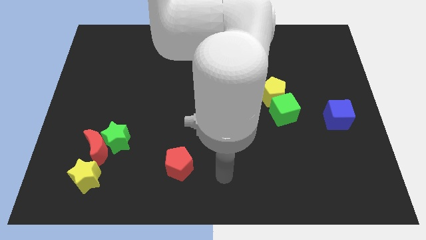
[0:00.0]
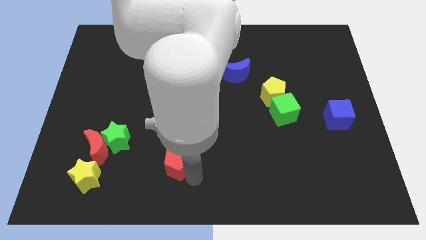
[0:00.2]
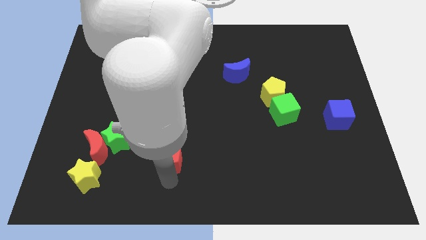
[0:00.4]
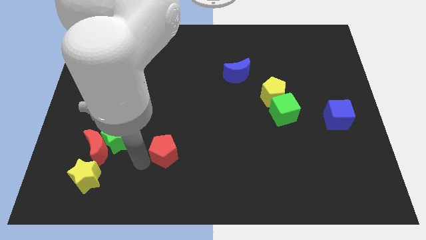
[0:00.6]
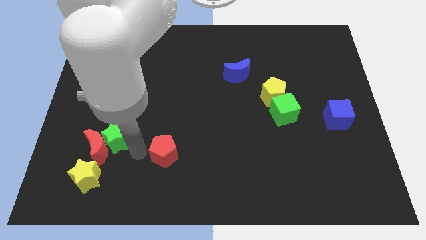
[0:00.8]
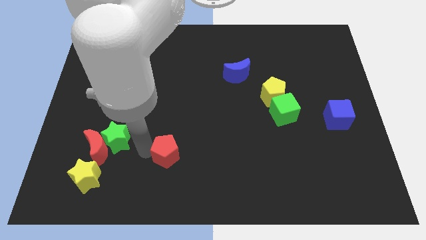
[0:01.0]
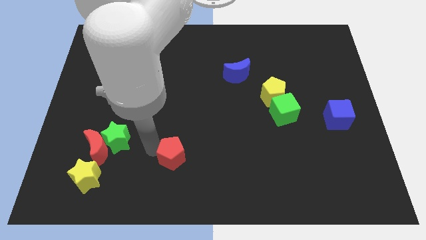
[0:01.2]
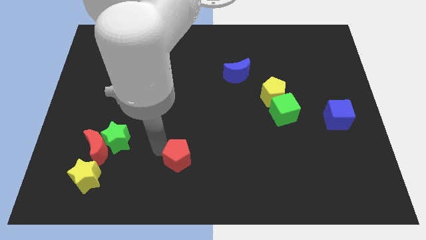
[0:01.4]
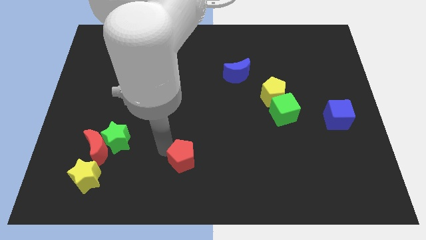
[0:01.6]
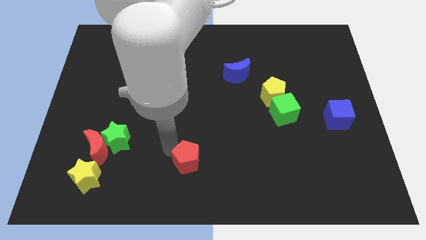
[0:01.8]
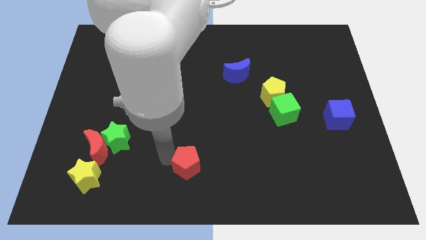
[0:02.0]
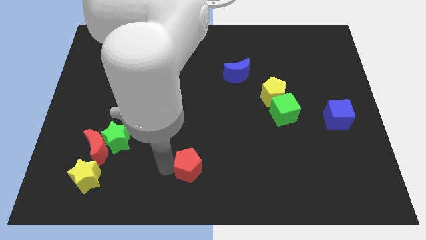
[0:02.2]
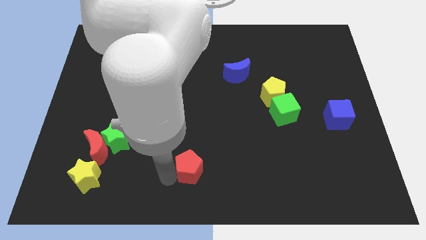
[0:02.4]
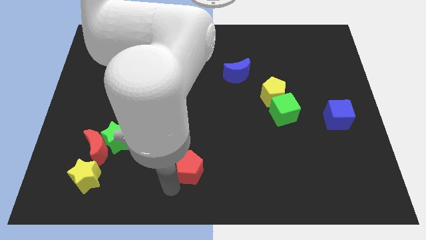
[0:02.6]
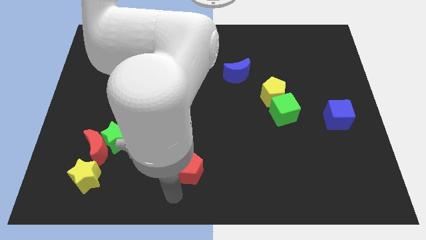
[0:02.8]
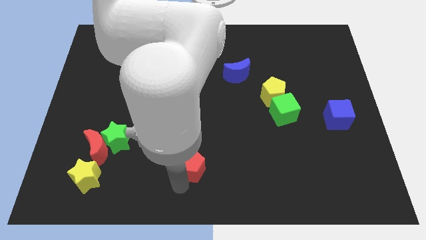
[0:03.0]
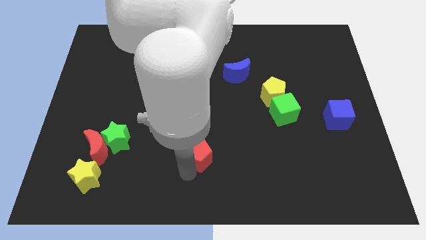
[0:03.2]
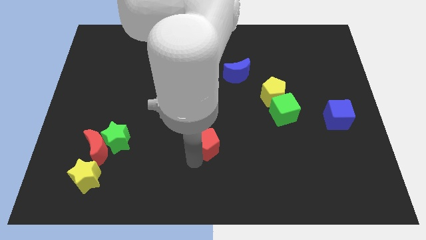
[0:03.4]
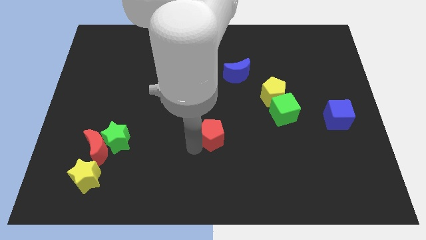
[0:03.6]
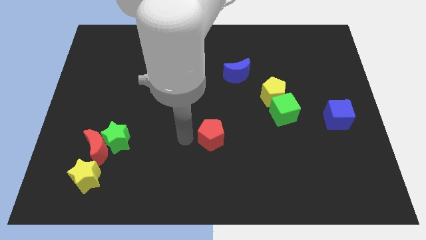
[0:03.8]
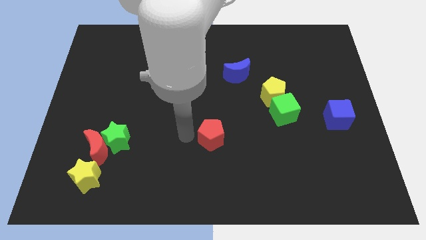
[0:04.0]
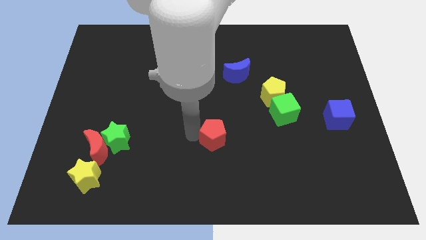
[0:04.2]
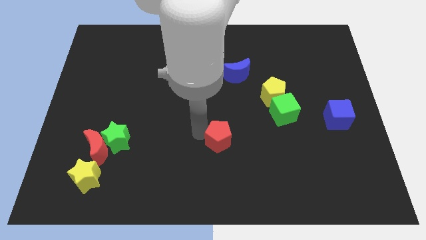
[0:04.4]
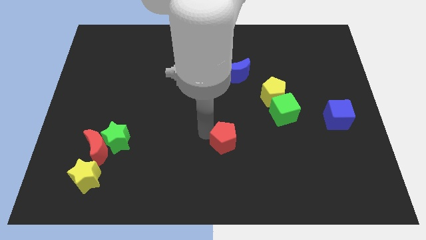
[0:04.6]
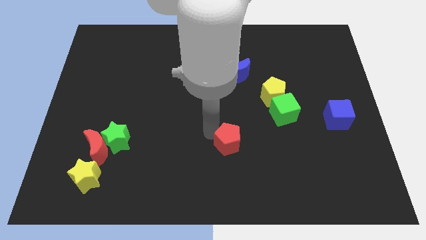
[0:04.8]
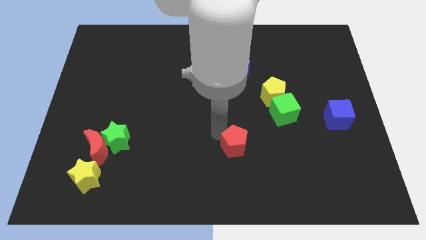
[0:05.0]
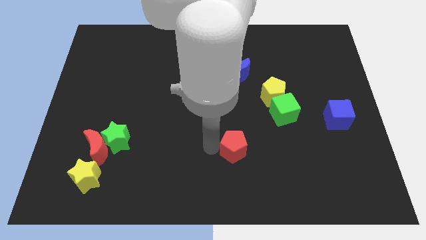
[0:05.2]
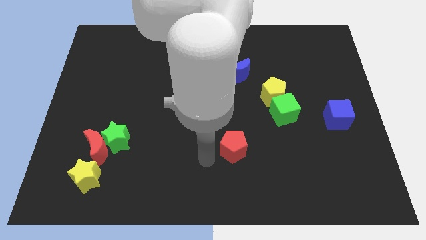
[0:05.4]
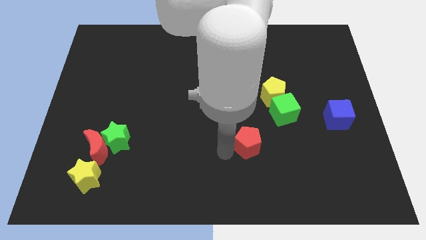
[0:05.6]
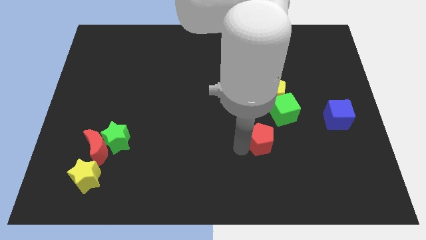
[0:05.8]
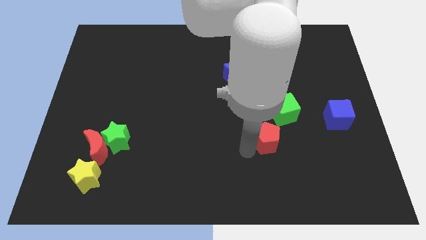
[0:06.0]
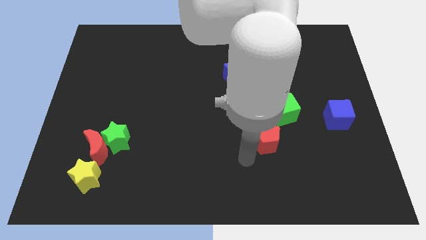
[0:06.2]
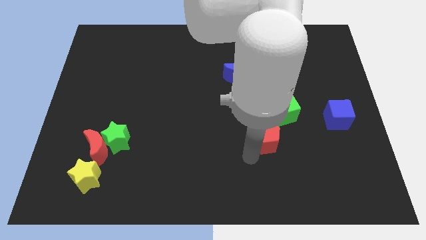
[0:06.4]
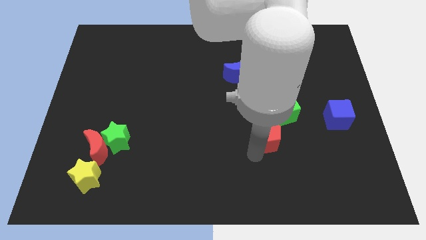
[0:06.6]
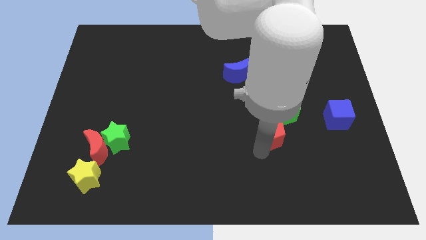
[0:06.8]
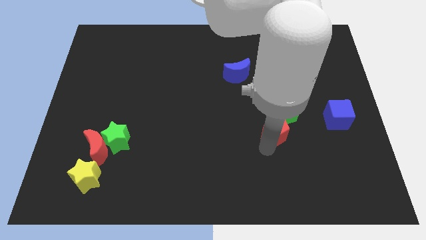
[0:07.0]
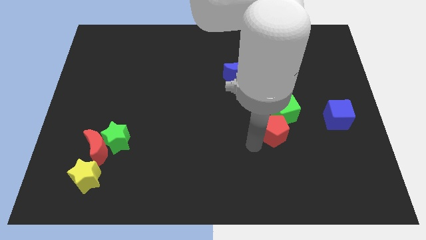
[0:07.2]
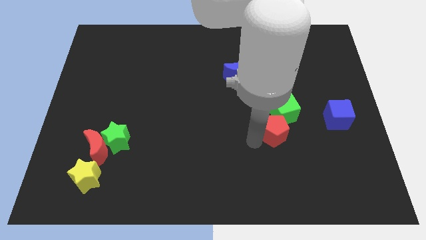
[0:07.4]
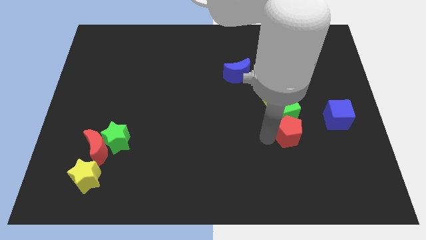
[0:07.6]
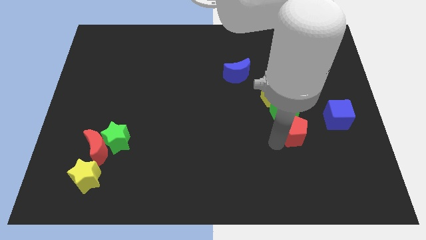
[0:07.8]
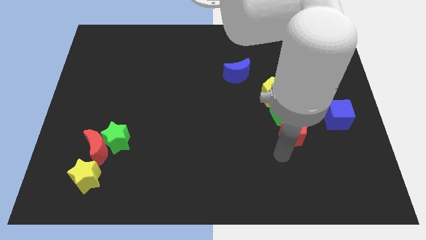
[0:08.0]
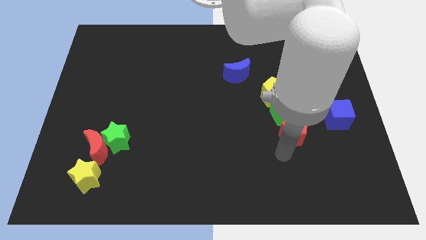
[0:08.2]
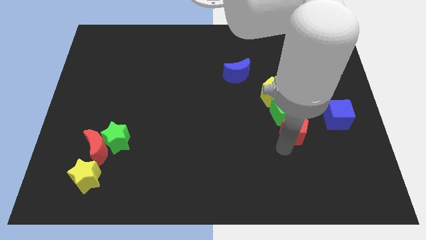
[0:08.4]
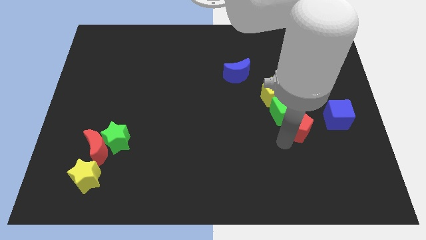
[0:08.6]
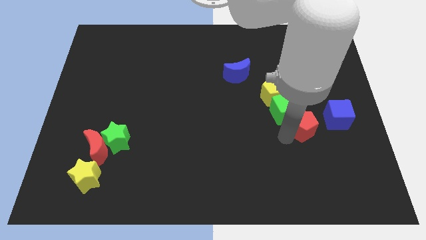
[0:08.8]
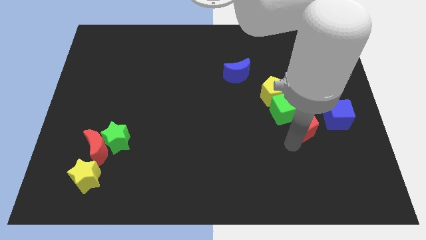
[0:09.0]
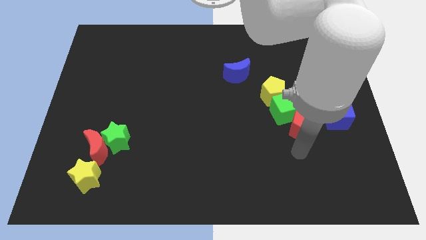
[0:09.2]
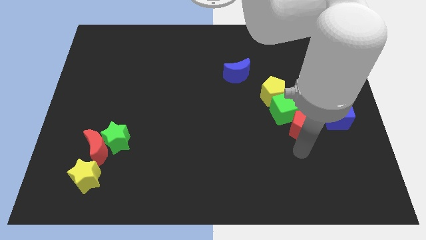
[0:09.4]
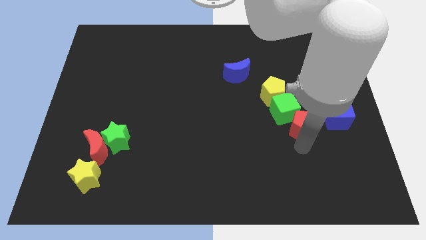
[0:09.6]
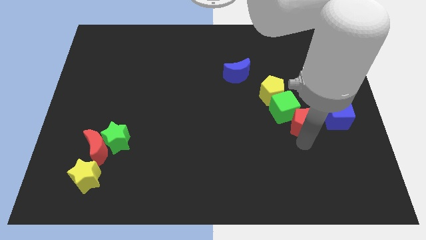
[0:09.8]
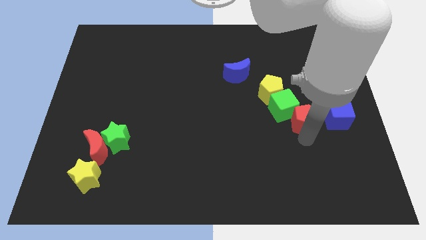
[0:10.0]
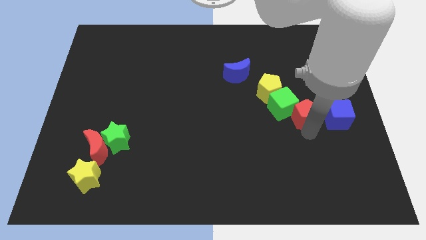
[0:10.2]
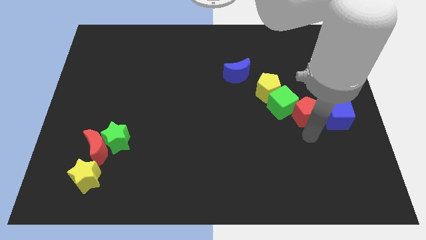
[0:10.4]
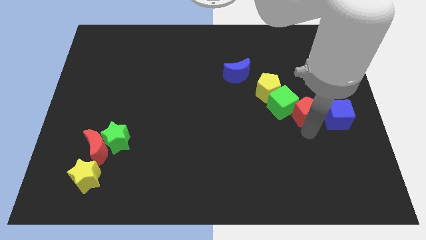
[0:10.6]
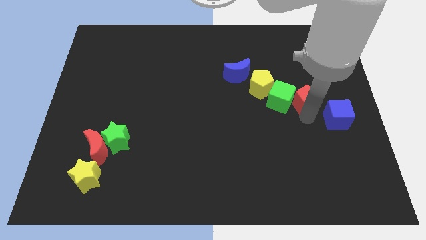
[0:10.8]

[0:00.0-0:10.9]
slide the red pentagon to the top right side of the green cube

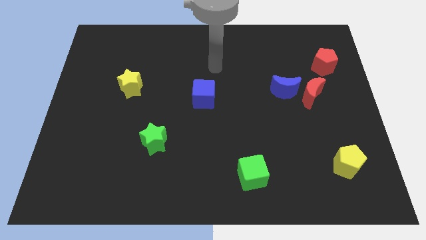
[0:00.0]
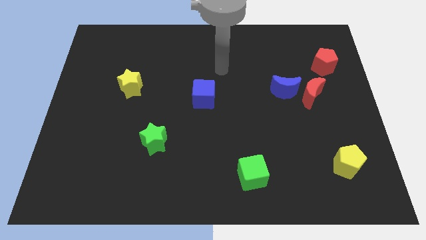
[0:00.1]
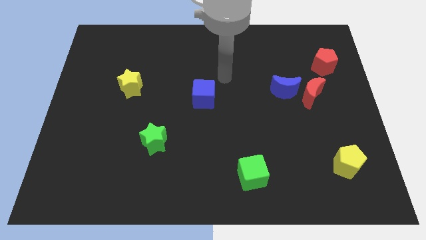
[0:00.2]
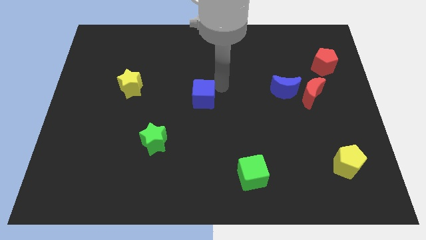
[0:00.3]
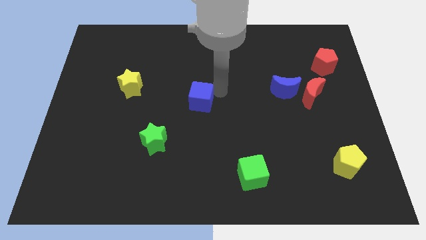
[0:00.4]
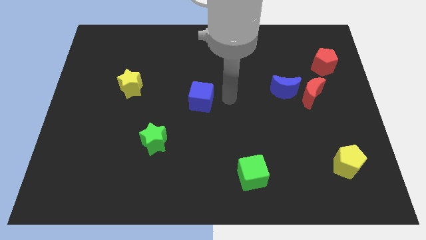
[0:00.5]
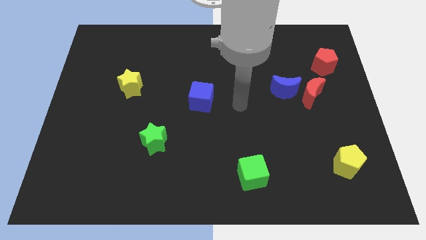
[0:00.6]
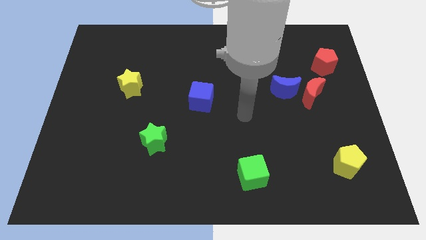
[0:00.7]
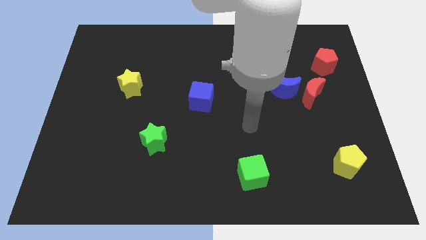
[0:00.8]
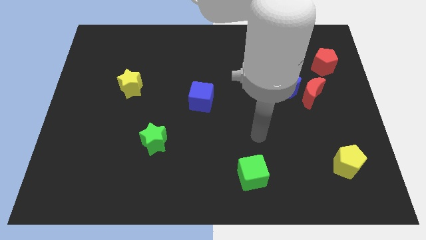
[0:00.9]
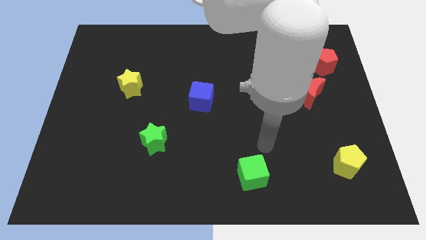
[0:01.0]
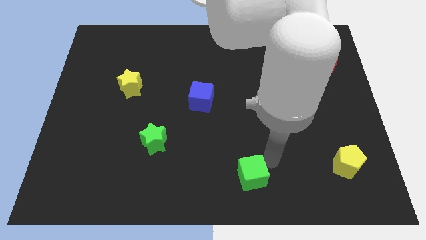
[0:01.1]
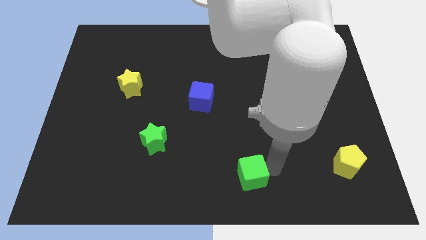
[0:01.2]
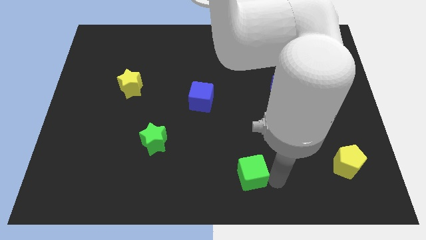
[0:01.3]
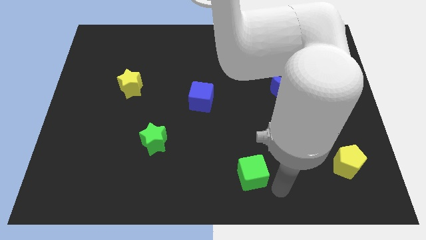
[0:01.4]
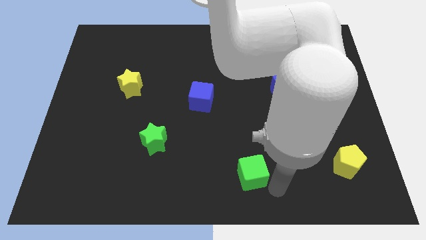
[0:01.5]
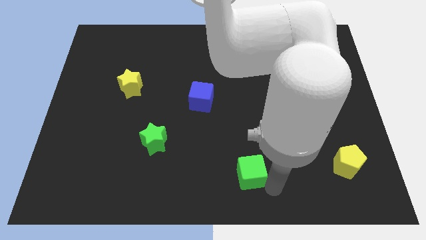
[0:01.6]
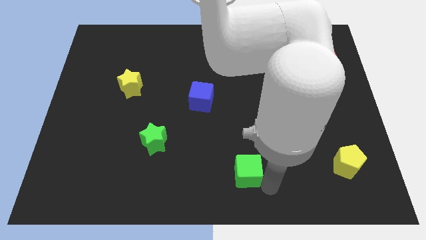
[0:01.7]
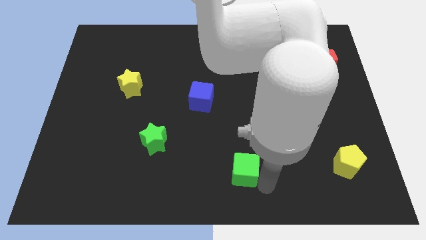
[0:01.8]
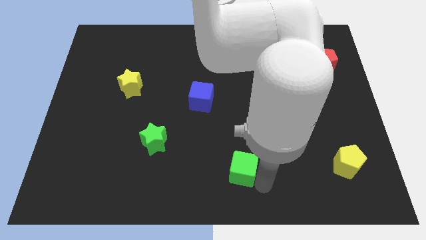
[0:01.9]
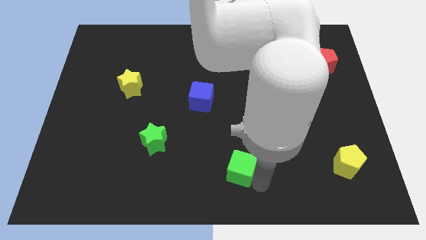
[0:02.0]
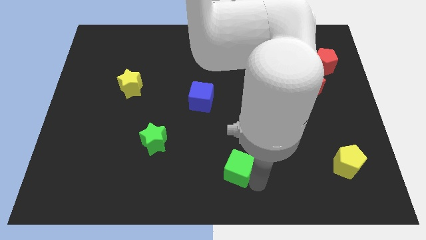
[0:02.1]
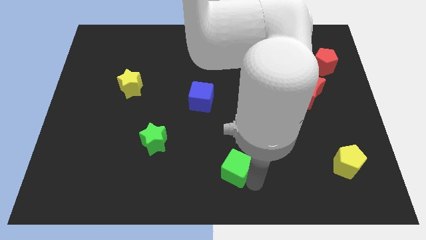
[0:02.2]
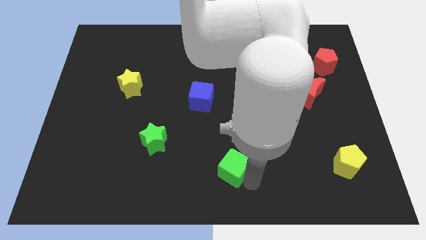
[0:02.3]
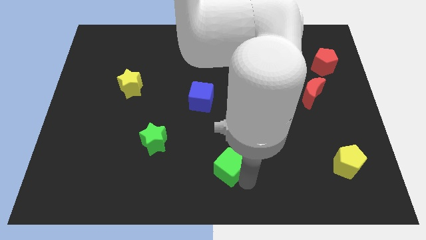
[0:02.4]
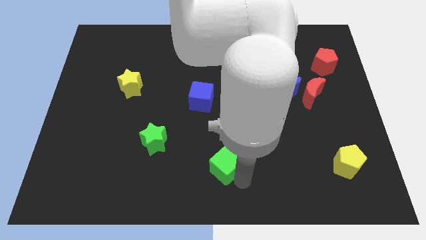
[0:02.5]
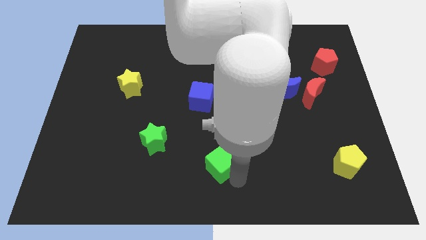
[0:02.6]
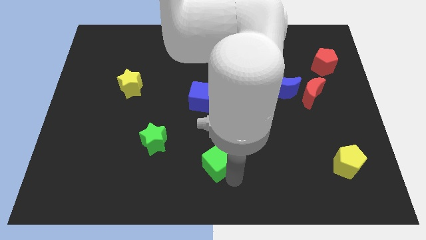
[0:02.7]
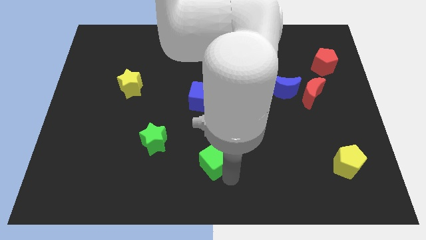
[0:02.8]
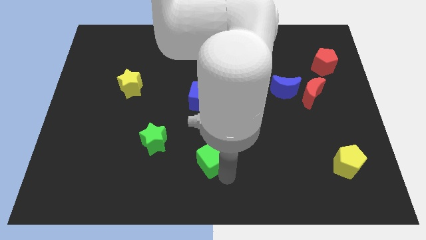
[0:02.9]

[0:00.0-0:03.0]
slide the green cube right of the green star
